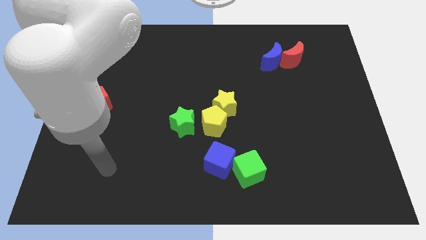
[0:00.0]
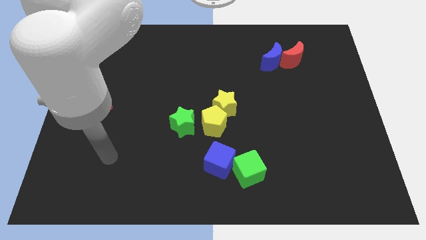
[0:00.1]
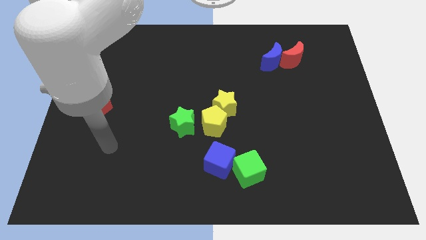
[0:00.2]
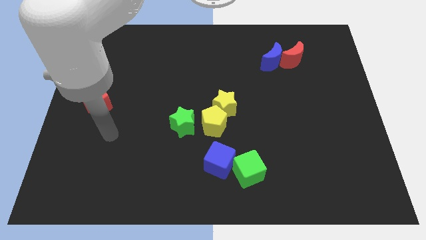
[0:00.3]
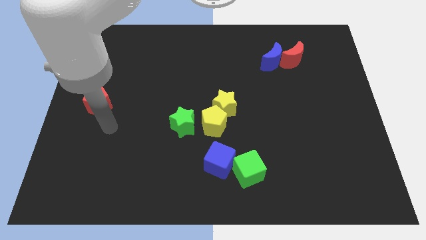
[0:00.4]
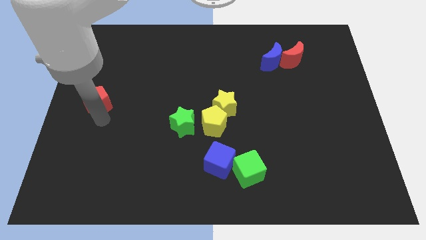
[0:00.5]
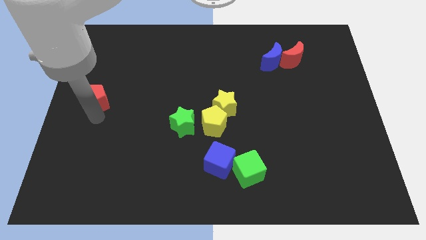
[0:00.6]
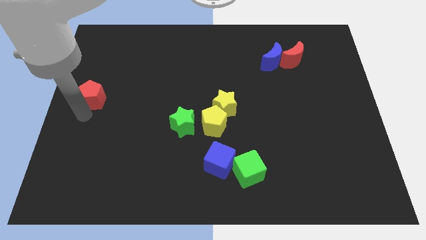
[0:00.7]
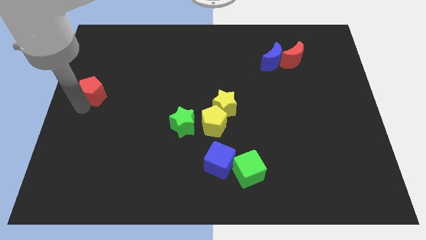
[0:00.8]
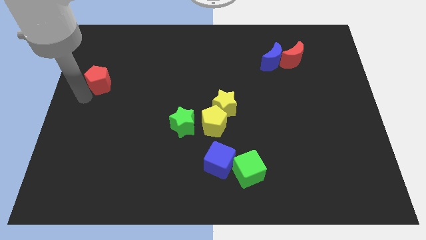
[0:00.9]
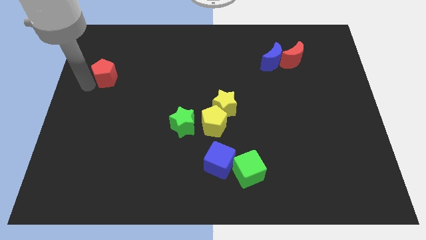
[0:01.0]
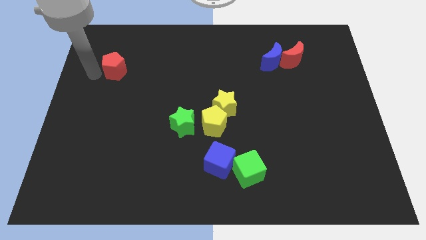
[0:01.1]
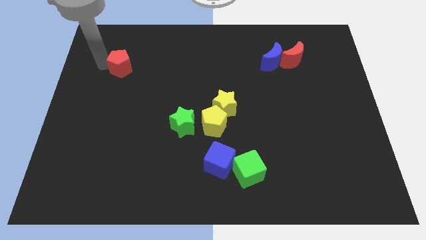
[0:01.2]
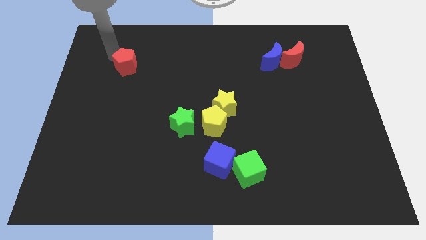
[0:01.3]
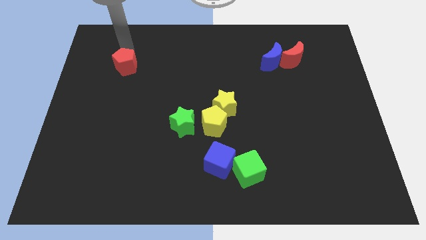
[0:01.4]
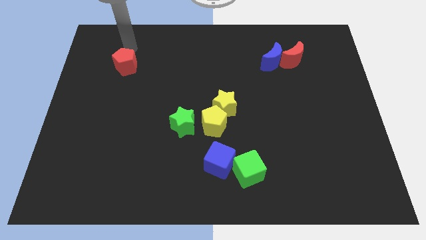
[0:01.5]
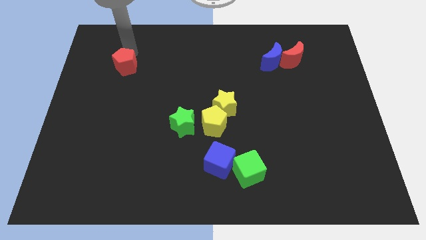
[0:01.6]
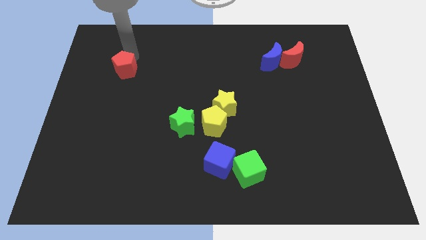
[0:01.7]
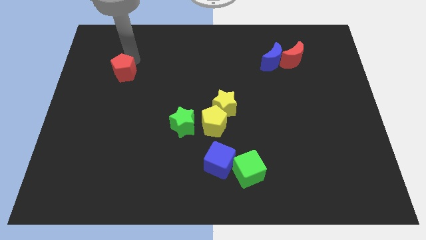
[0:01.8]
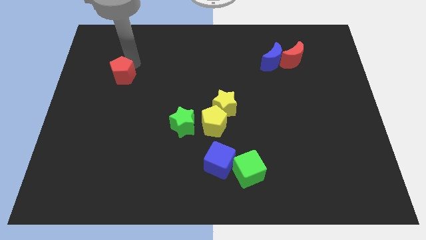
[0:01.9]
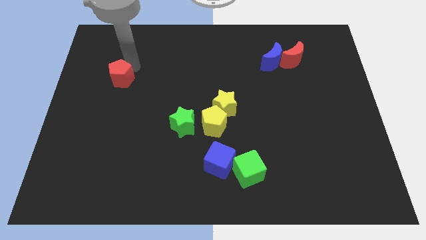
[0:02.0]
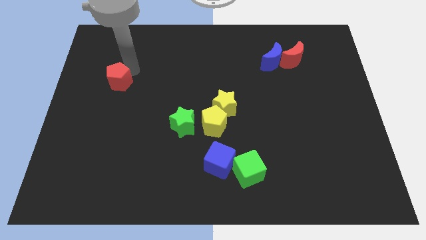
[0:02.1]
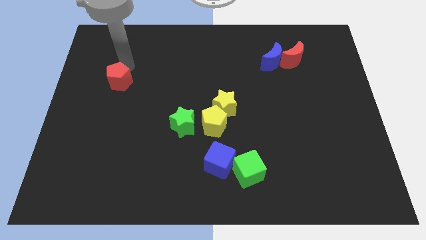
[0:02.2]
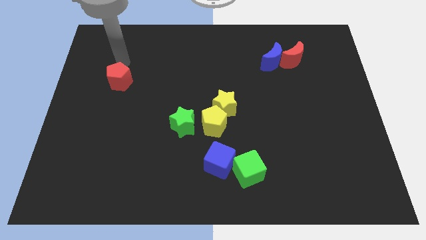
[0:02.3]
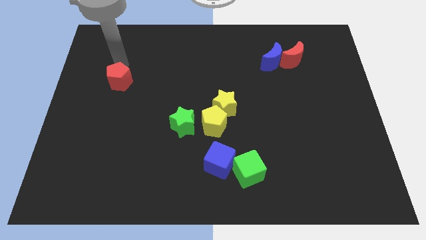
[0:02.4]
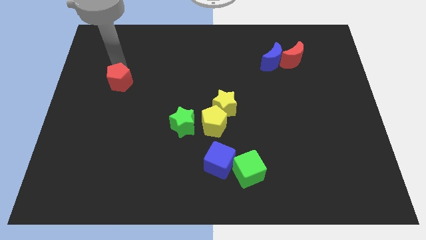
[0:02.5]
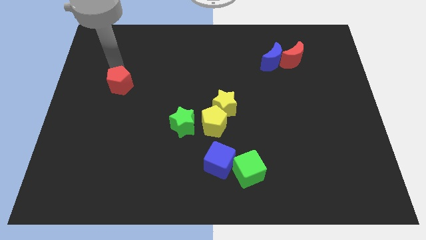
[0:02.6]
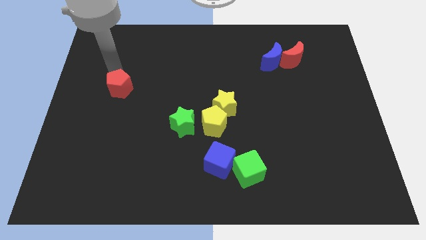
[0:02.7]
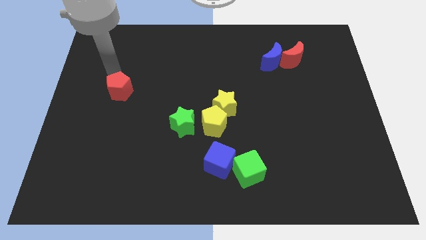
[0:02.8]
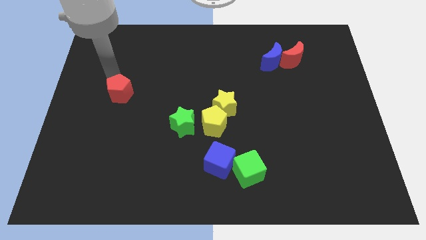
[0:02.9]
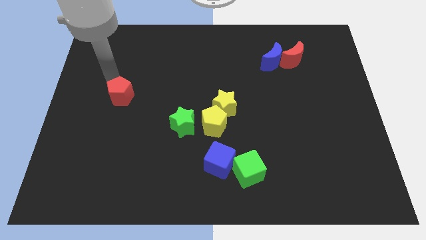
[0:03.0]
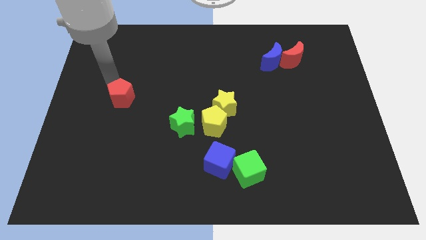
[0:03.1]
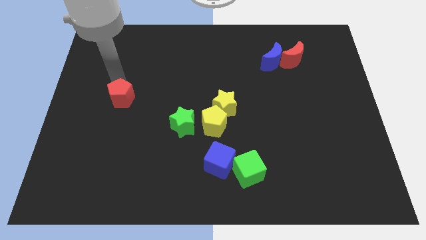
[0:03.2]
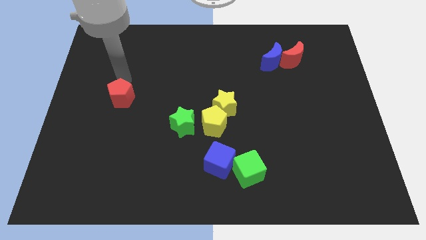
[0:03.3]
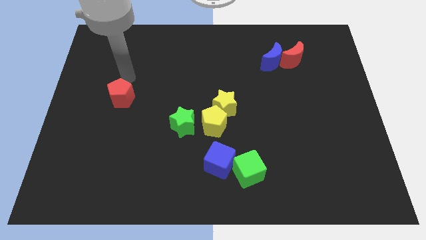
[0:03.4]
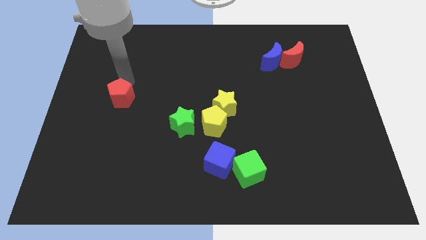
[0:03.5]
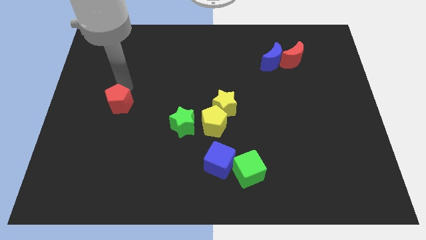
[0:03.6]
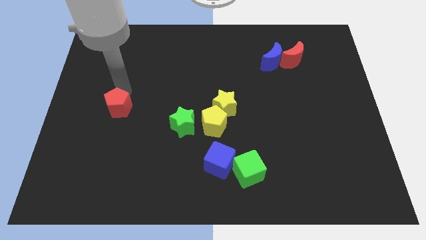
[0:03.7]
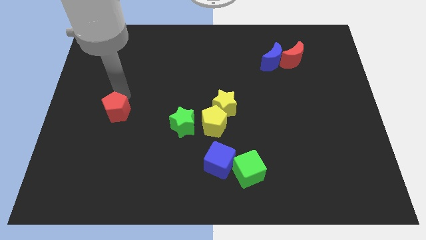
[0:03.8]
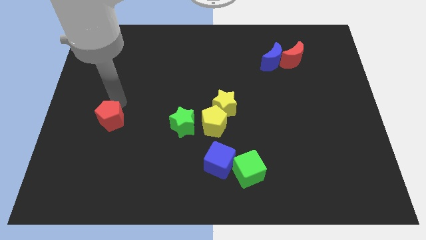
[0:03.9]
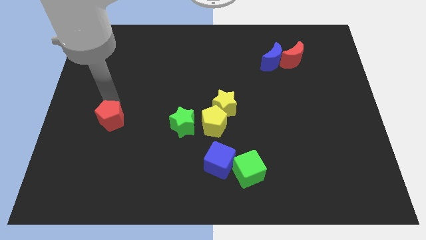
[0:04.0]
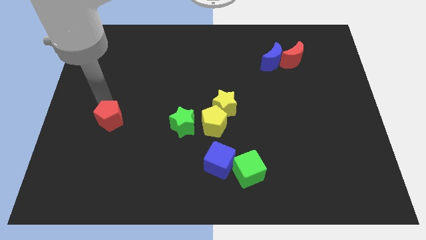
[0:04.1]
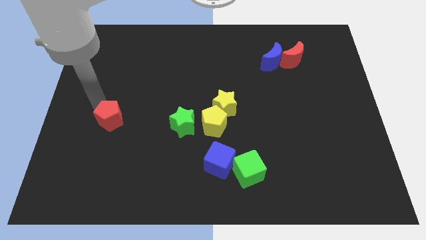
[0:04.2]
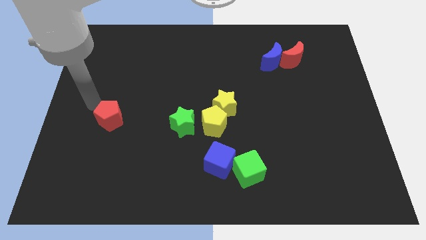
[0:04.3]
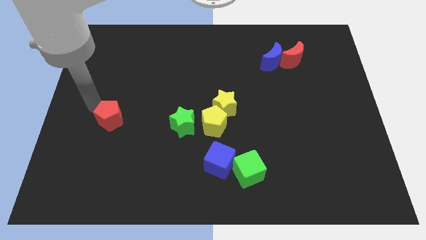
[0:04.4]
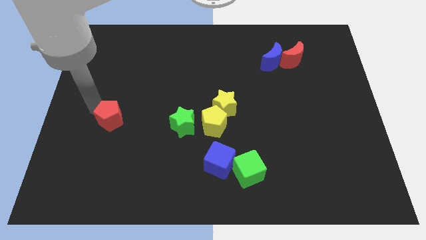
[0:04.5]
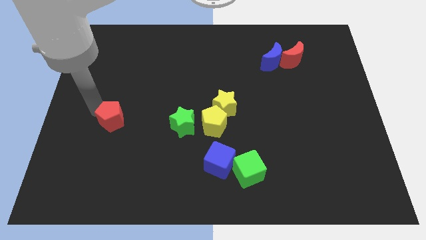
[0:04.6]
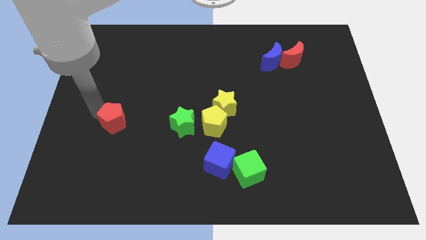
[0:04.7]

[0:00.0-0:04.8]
move the red pentagon somewhat down and right diagonally

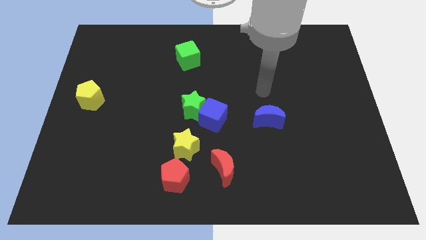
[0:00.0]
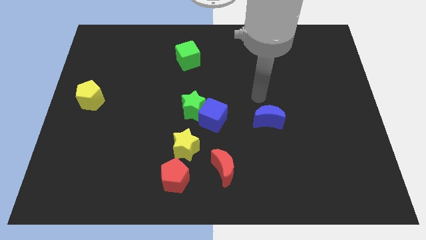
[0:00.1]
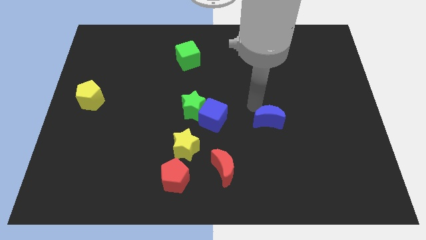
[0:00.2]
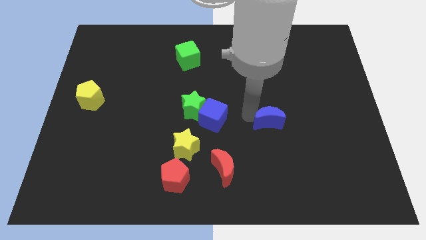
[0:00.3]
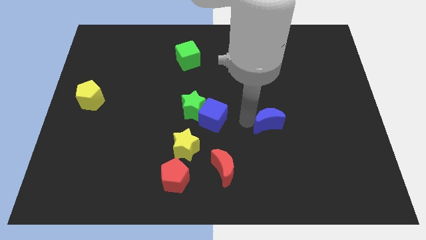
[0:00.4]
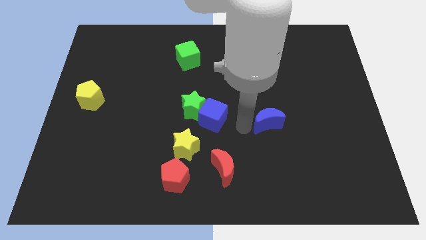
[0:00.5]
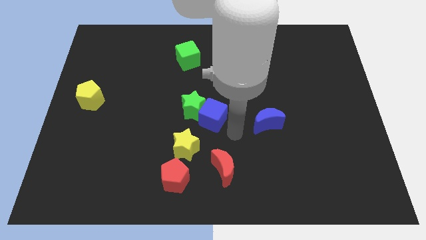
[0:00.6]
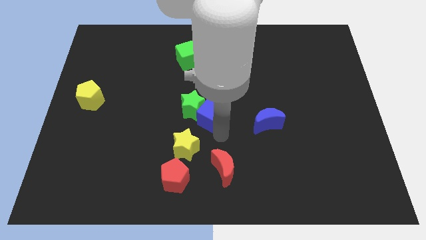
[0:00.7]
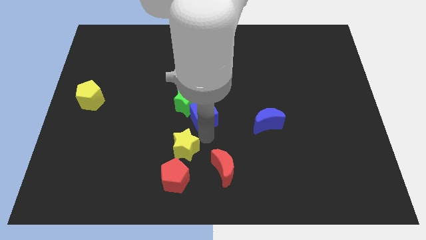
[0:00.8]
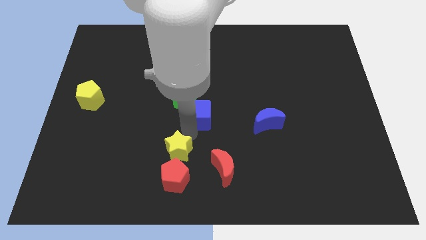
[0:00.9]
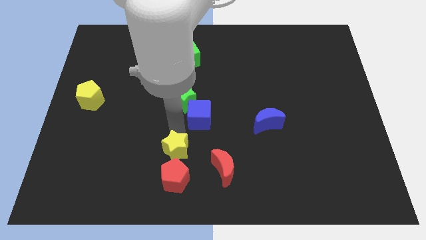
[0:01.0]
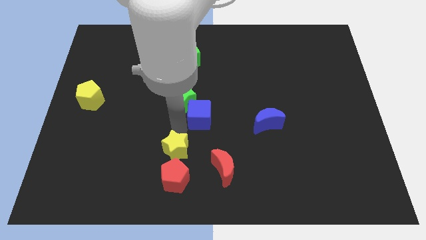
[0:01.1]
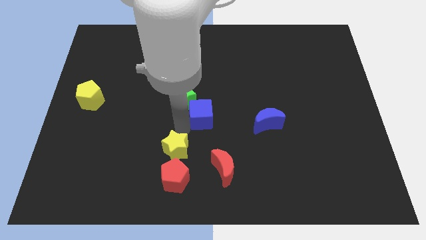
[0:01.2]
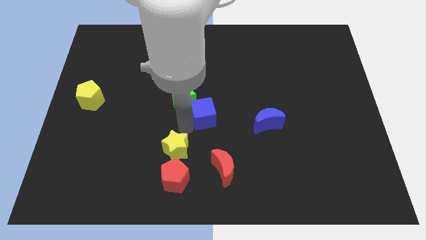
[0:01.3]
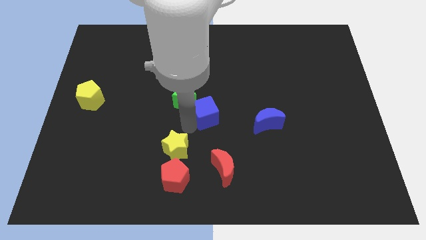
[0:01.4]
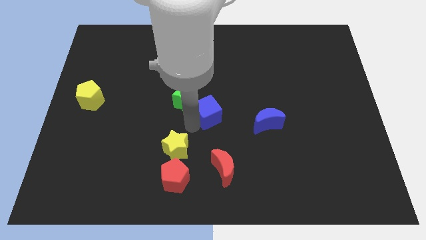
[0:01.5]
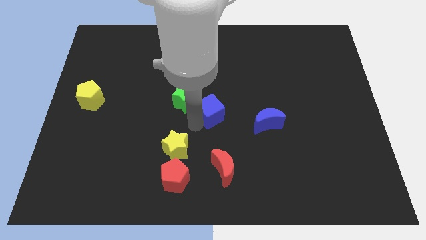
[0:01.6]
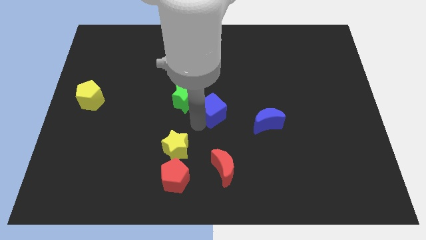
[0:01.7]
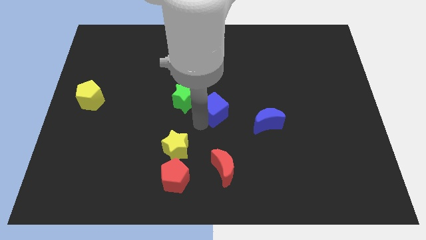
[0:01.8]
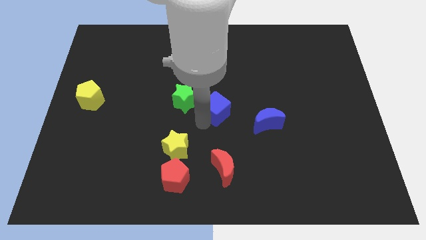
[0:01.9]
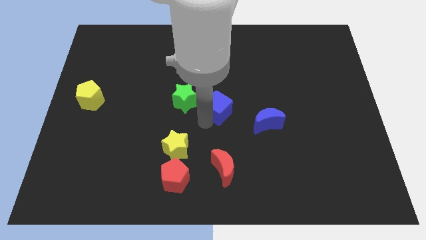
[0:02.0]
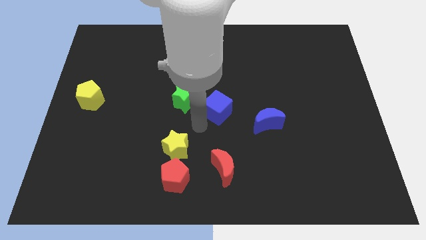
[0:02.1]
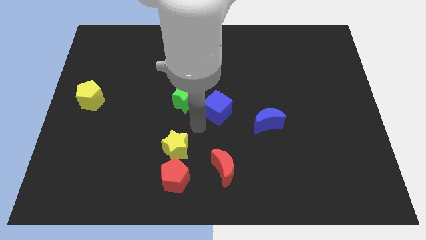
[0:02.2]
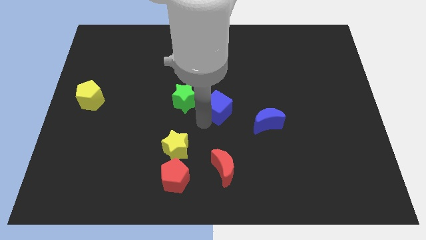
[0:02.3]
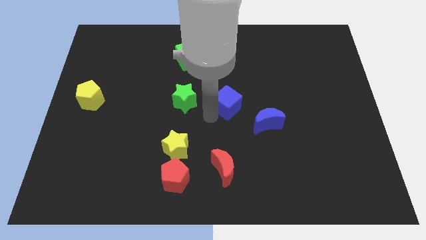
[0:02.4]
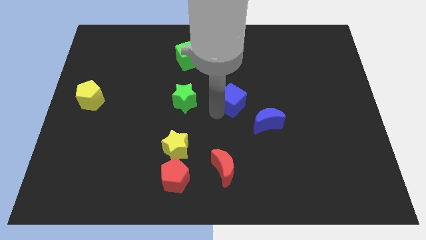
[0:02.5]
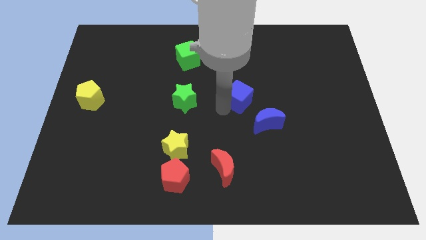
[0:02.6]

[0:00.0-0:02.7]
slightly push the blue cube upwards and to the right diagonally

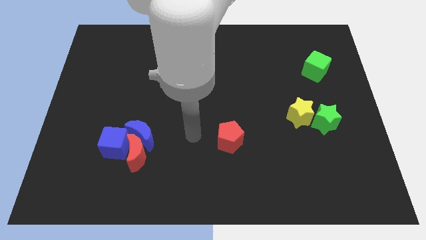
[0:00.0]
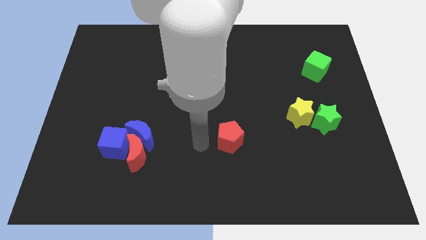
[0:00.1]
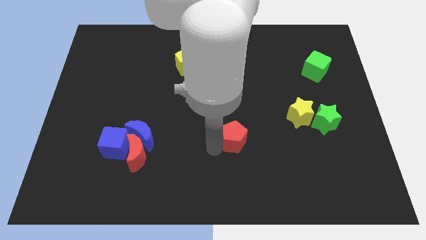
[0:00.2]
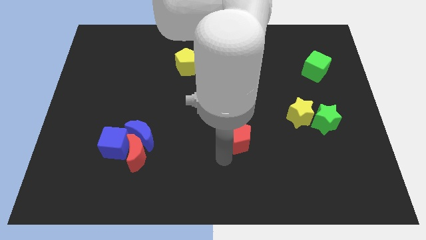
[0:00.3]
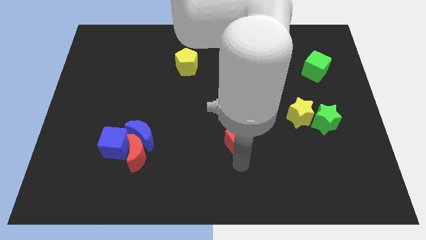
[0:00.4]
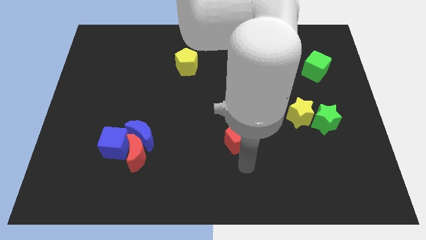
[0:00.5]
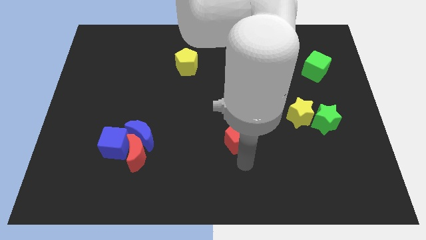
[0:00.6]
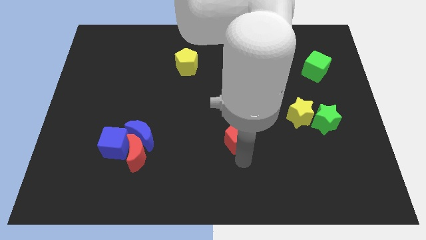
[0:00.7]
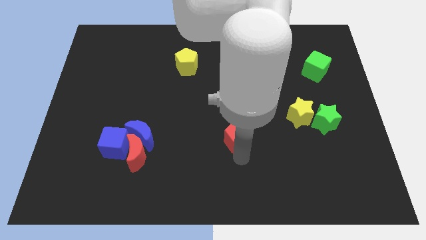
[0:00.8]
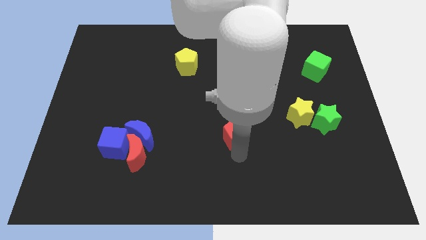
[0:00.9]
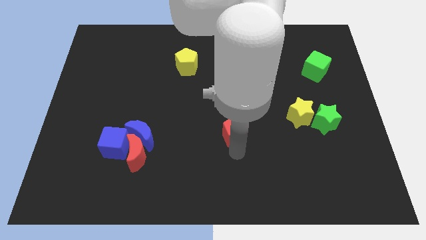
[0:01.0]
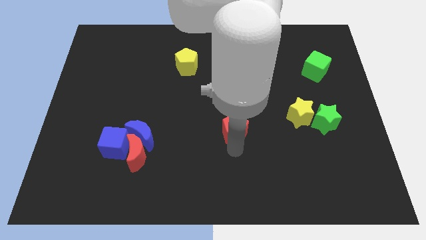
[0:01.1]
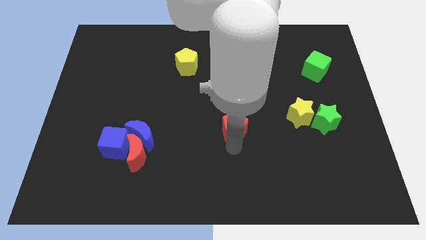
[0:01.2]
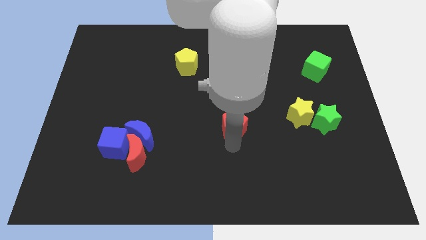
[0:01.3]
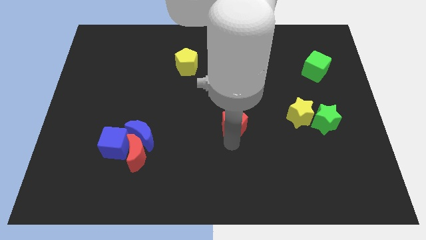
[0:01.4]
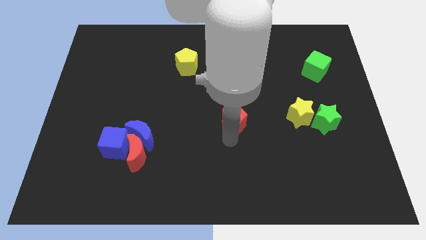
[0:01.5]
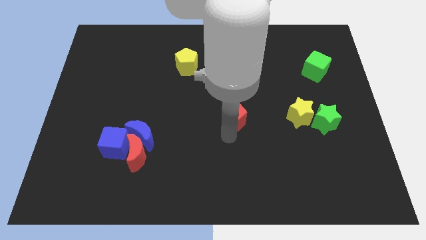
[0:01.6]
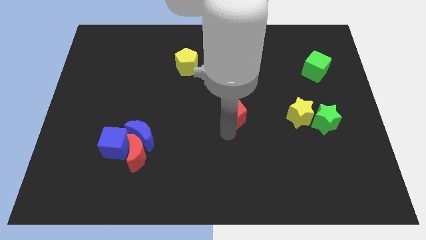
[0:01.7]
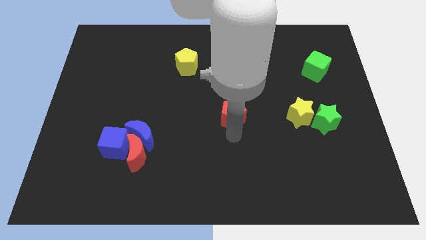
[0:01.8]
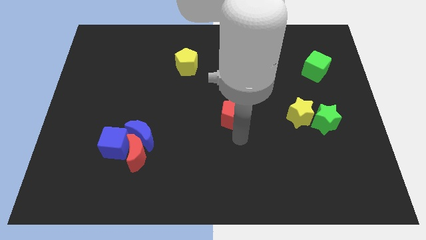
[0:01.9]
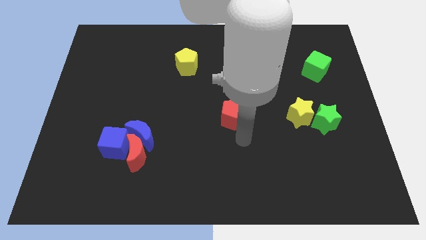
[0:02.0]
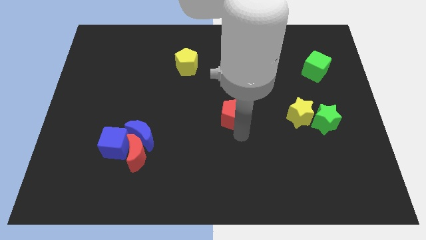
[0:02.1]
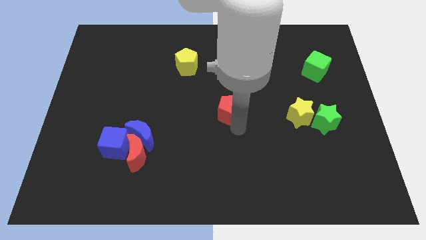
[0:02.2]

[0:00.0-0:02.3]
slide the red pentagon slightly up
